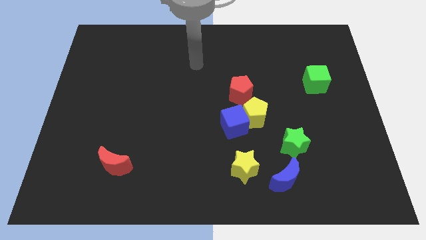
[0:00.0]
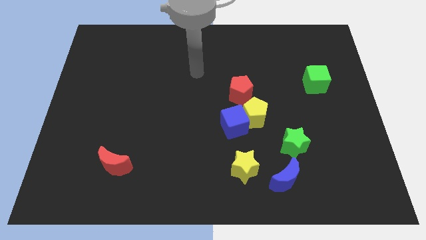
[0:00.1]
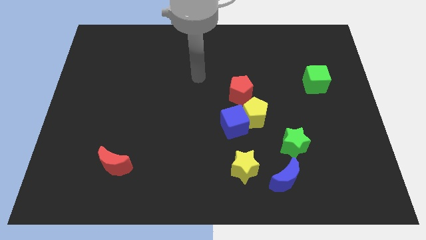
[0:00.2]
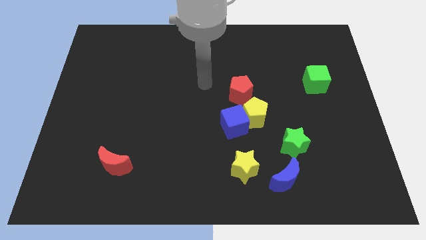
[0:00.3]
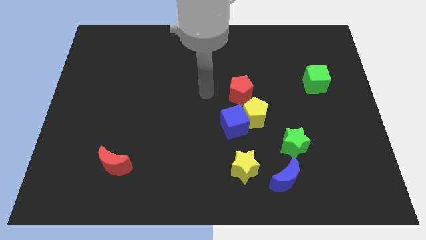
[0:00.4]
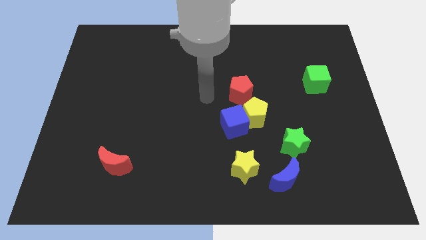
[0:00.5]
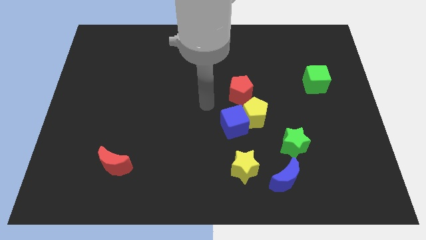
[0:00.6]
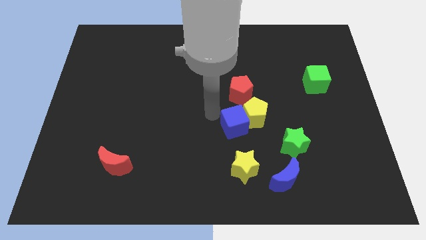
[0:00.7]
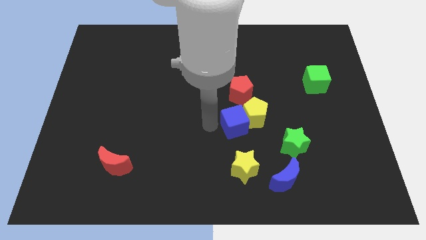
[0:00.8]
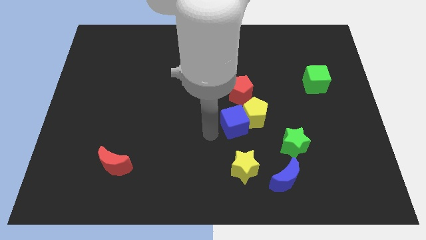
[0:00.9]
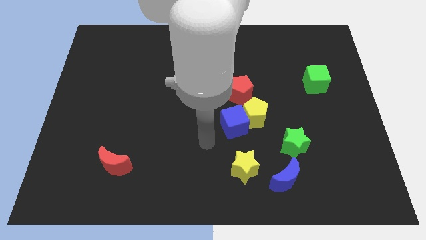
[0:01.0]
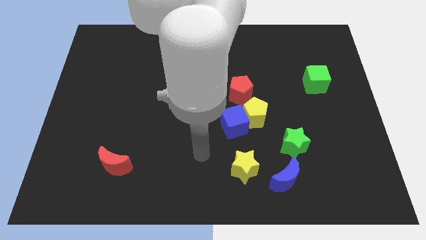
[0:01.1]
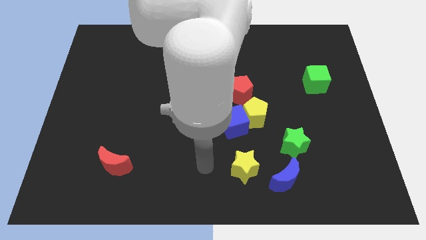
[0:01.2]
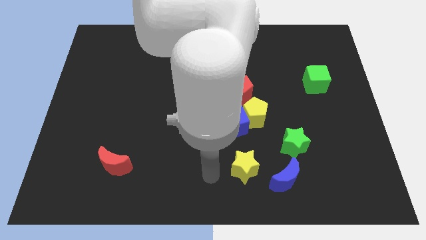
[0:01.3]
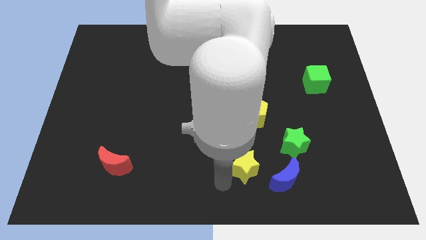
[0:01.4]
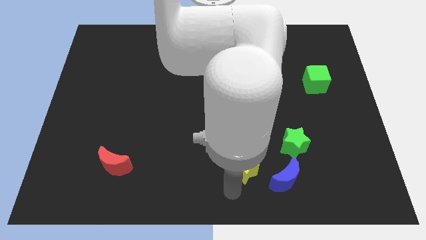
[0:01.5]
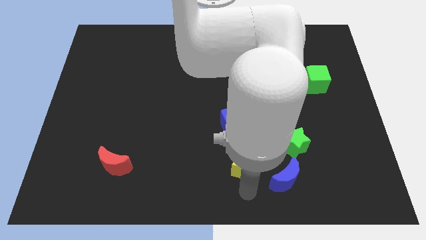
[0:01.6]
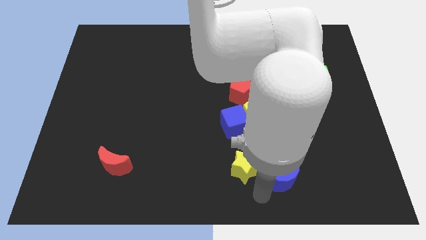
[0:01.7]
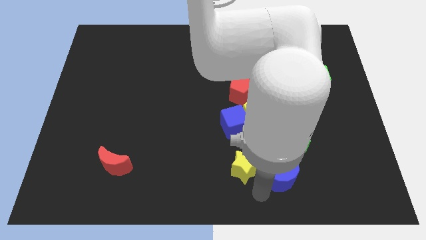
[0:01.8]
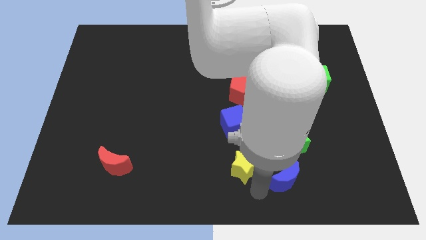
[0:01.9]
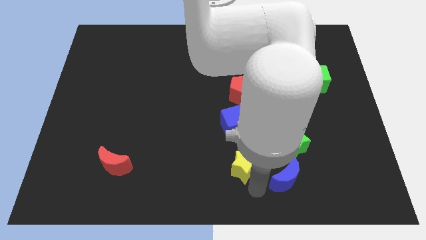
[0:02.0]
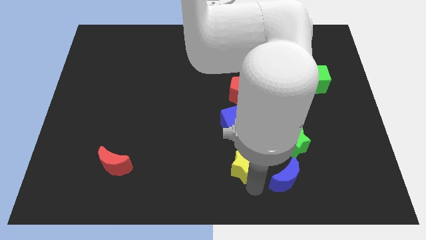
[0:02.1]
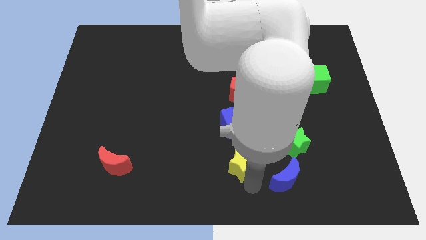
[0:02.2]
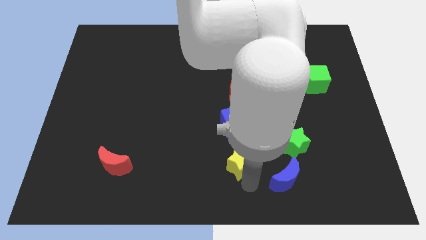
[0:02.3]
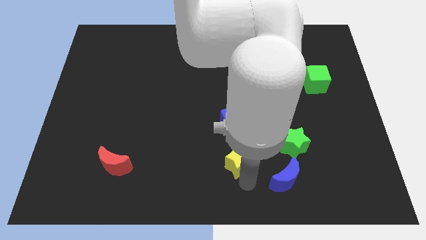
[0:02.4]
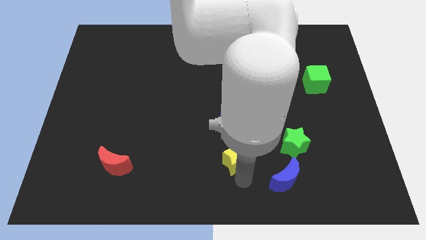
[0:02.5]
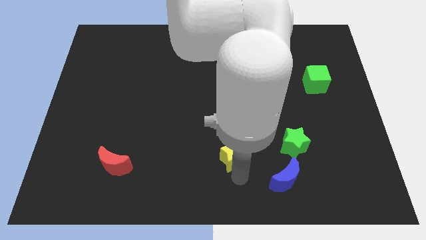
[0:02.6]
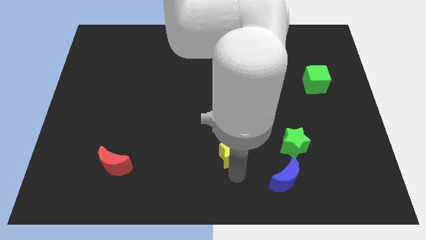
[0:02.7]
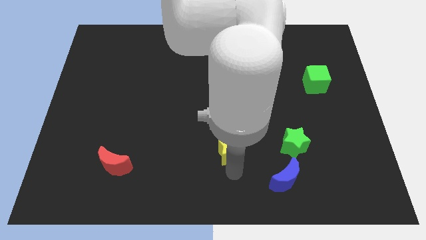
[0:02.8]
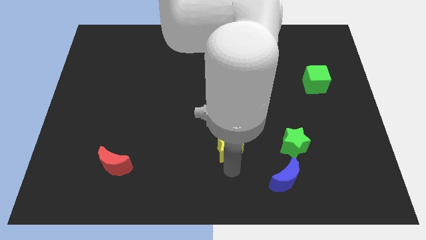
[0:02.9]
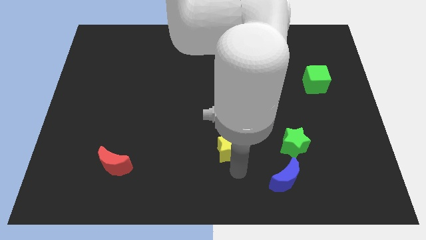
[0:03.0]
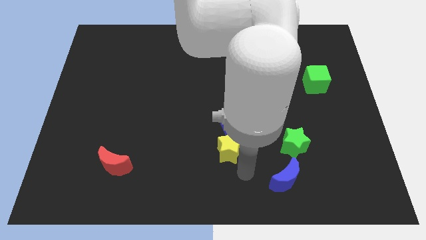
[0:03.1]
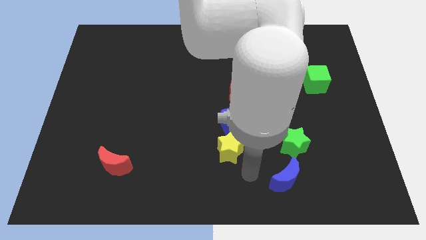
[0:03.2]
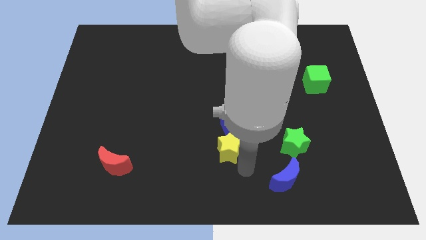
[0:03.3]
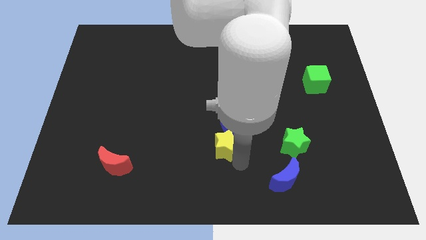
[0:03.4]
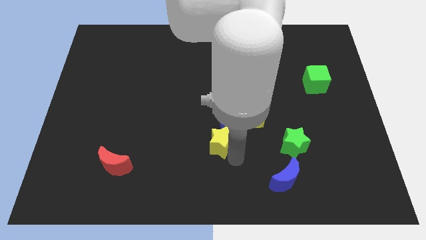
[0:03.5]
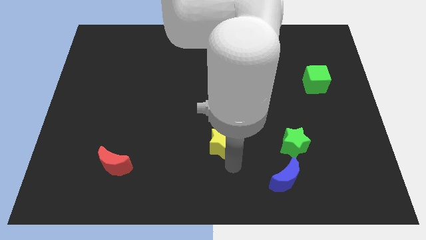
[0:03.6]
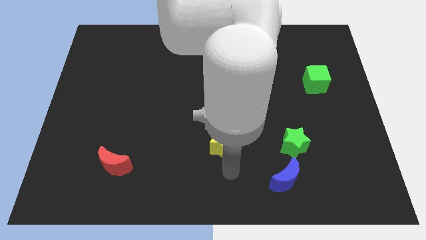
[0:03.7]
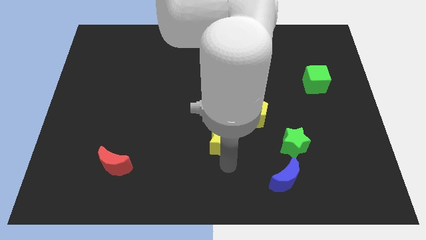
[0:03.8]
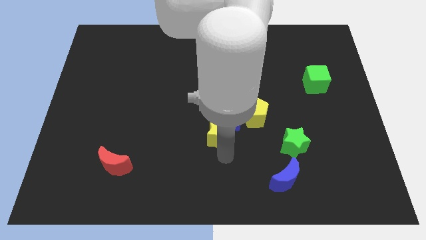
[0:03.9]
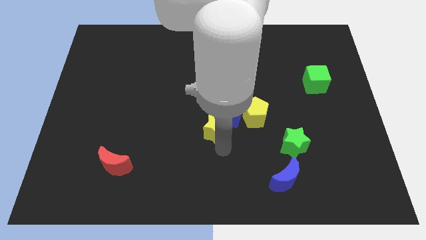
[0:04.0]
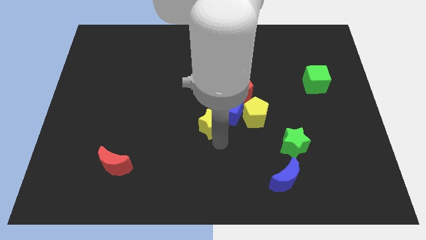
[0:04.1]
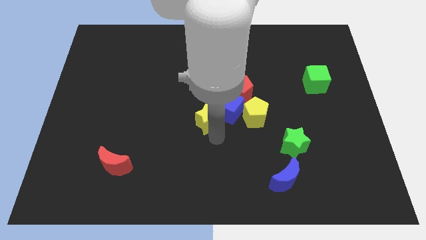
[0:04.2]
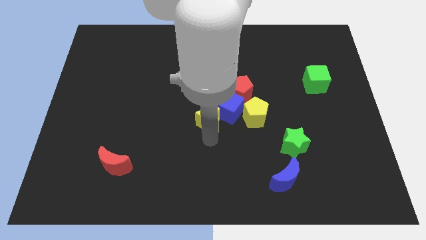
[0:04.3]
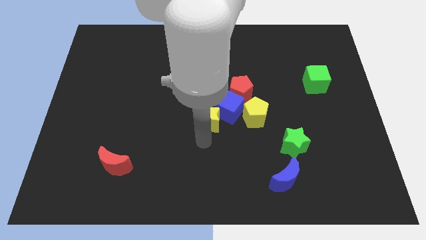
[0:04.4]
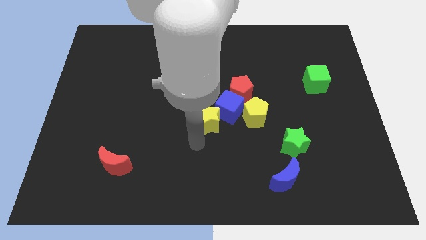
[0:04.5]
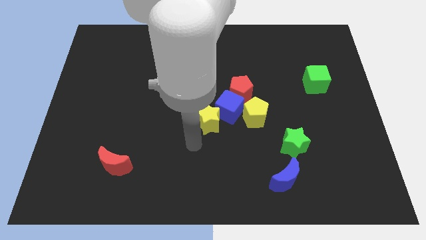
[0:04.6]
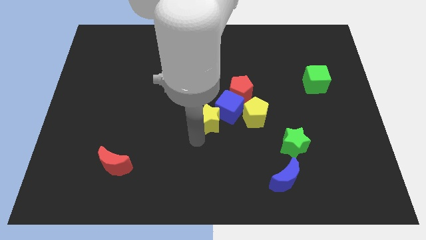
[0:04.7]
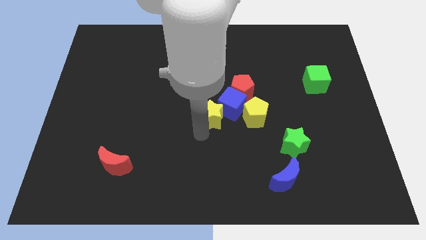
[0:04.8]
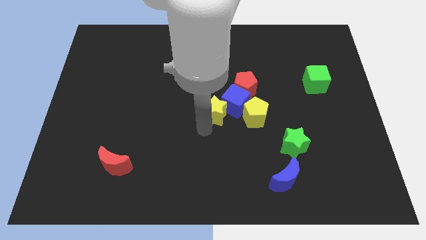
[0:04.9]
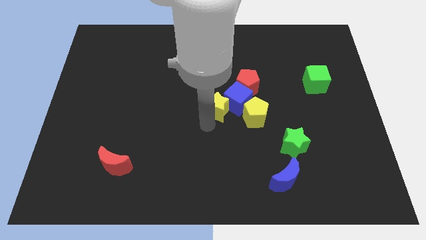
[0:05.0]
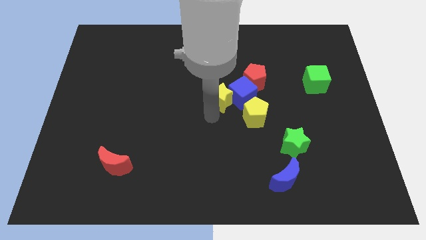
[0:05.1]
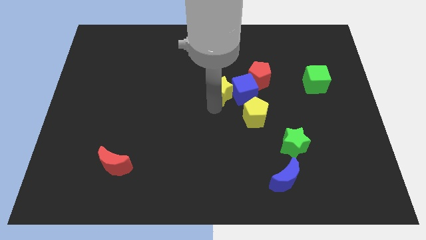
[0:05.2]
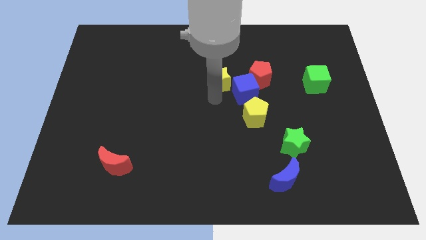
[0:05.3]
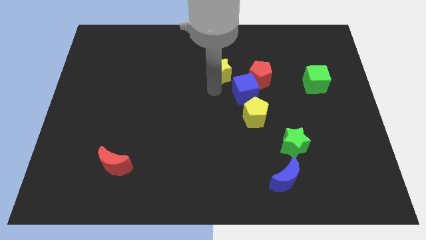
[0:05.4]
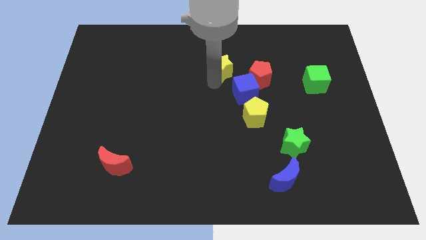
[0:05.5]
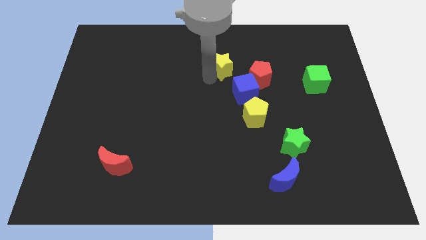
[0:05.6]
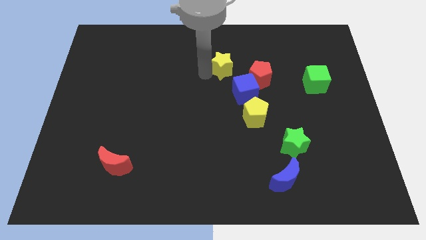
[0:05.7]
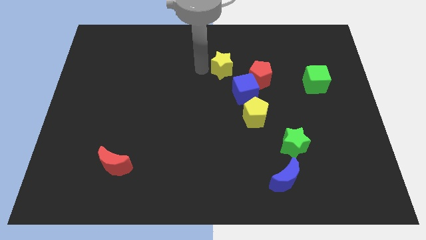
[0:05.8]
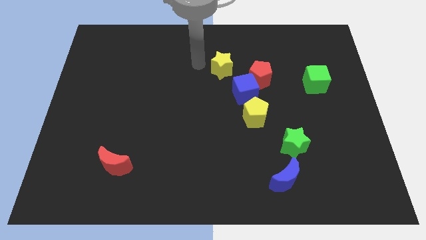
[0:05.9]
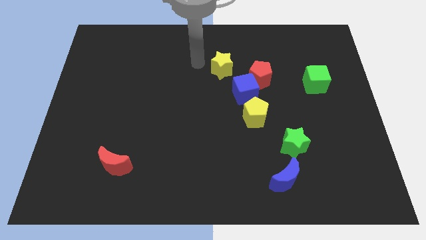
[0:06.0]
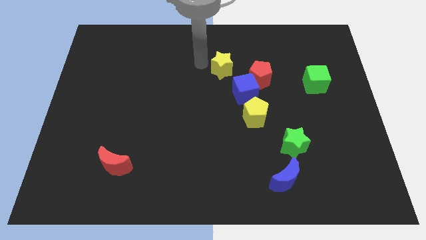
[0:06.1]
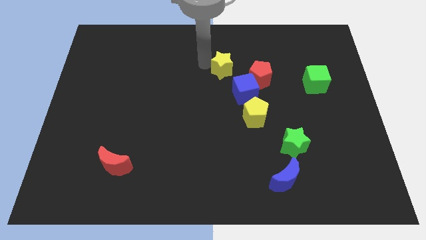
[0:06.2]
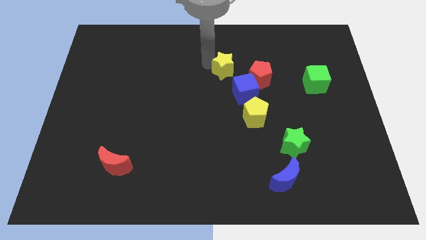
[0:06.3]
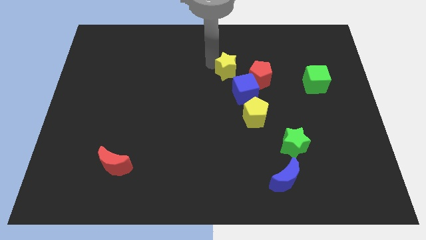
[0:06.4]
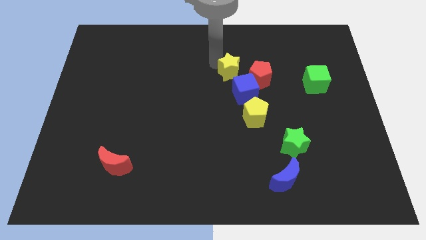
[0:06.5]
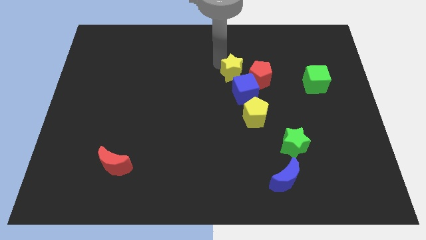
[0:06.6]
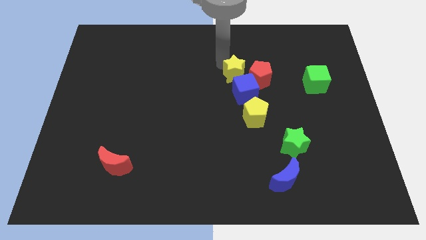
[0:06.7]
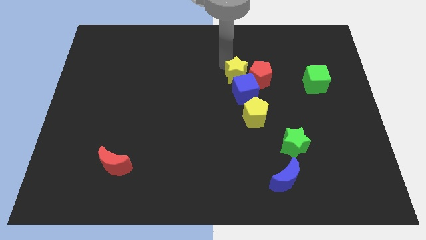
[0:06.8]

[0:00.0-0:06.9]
push the yellow star next to the red pentagon

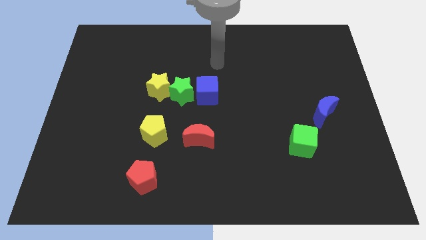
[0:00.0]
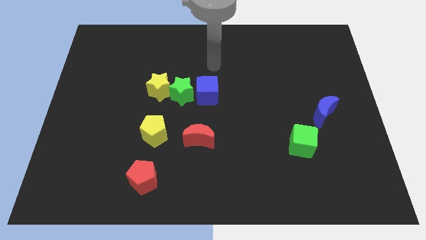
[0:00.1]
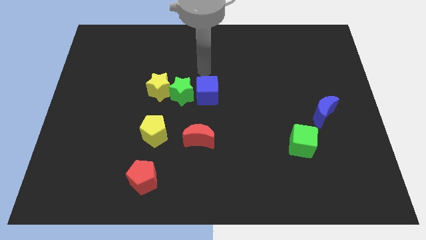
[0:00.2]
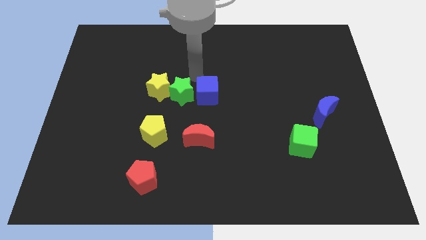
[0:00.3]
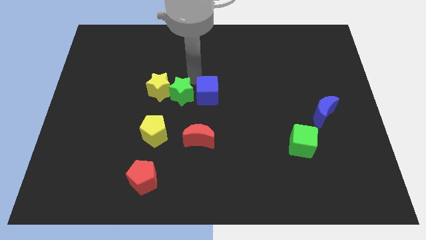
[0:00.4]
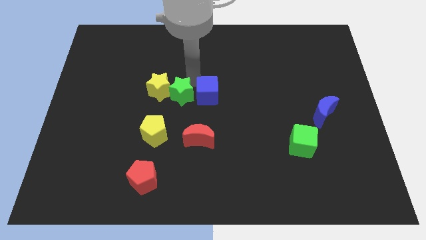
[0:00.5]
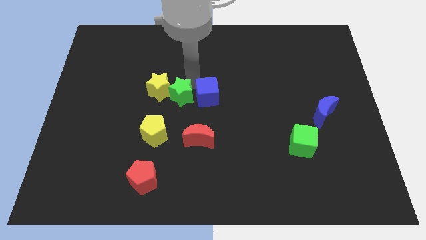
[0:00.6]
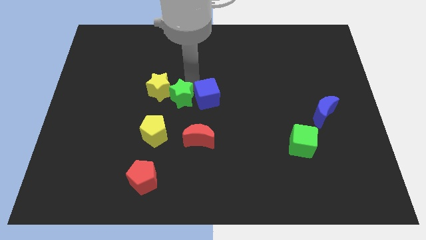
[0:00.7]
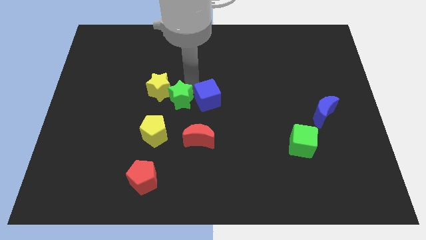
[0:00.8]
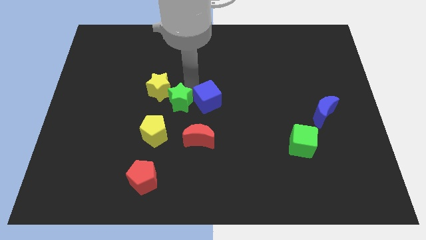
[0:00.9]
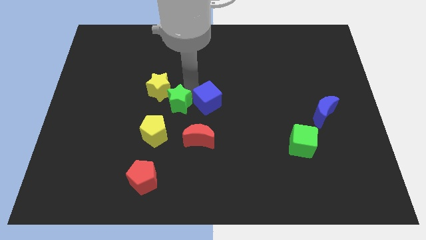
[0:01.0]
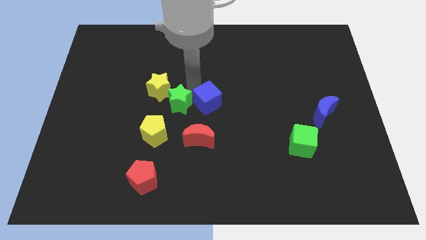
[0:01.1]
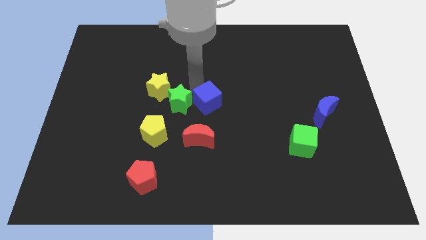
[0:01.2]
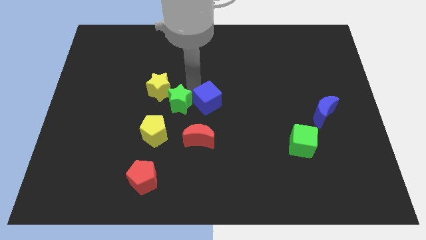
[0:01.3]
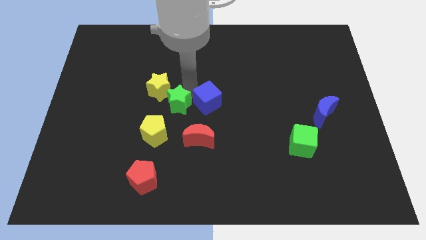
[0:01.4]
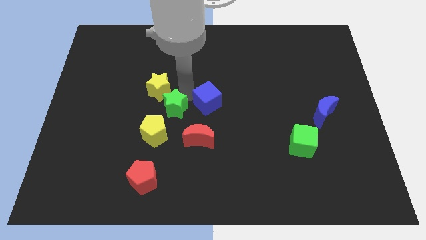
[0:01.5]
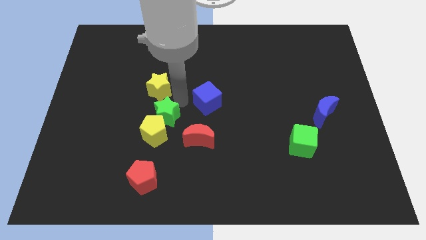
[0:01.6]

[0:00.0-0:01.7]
put the green star to the yellow pentagon
